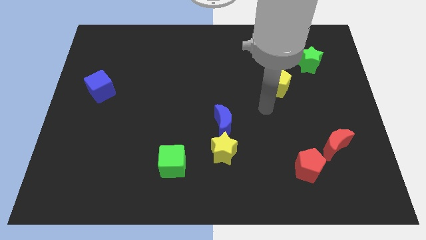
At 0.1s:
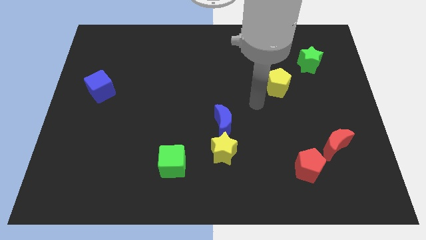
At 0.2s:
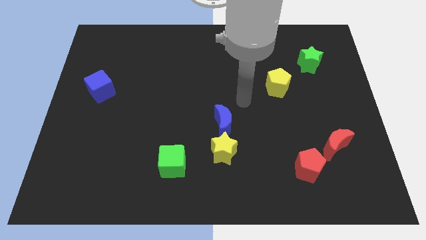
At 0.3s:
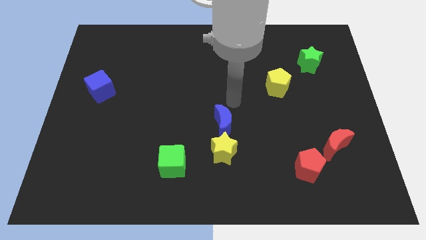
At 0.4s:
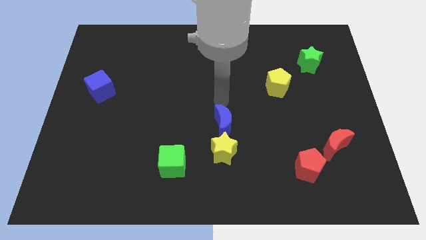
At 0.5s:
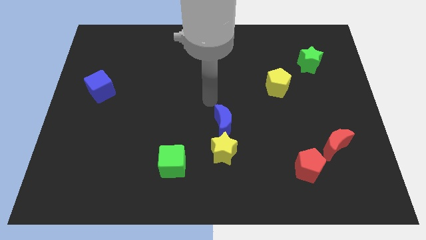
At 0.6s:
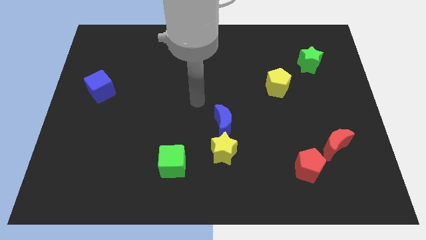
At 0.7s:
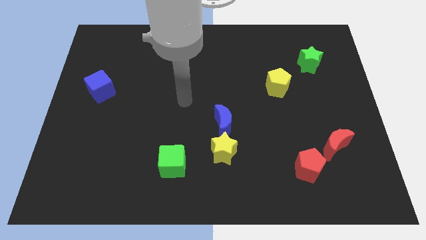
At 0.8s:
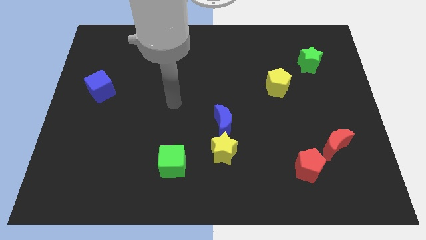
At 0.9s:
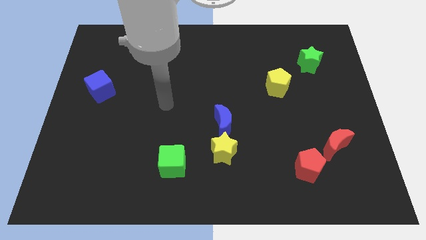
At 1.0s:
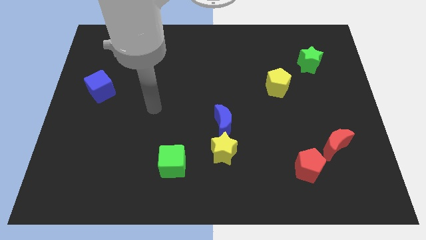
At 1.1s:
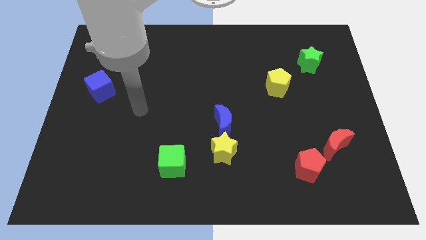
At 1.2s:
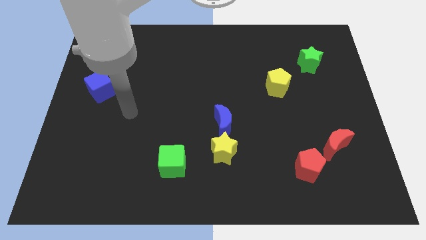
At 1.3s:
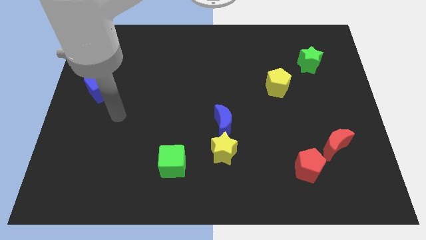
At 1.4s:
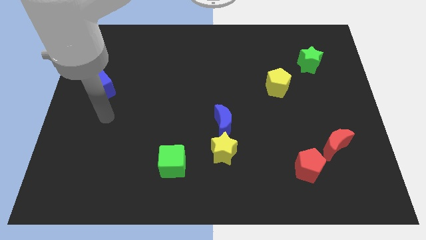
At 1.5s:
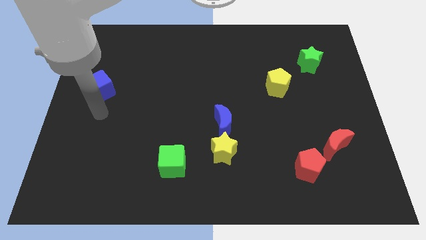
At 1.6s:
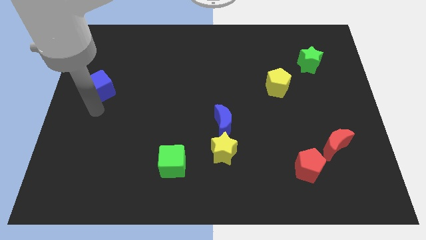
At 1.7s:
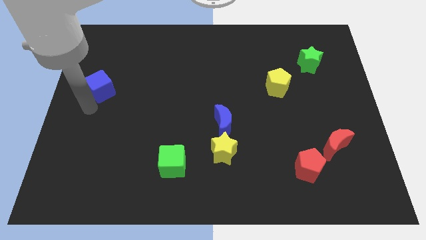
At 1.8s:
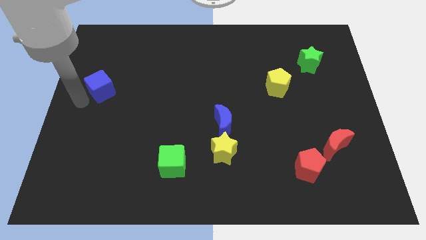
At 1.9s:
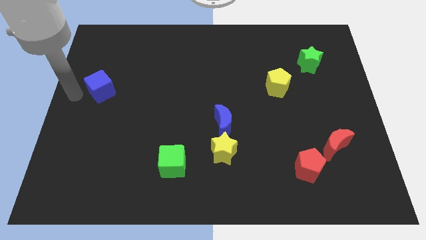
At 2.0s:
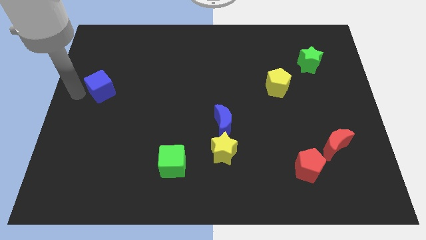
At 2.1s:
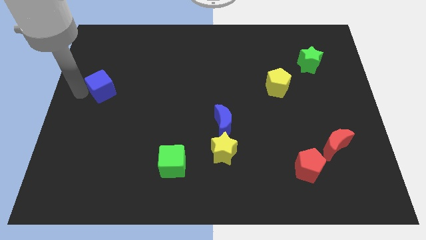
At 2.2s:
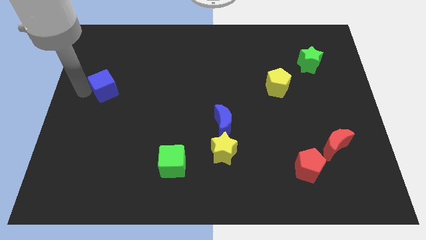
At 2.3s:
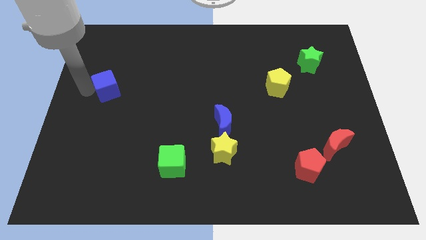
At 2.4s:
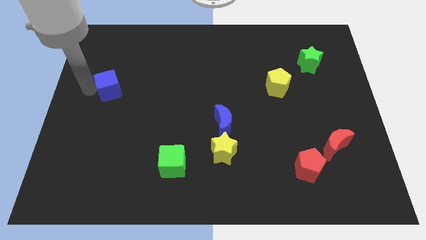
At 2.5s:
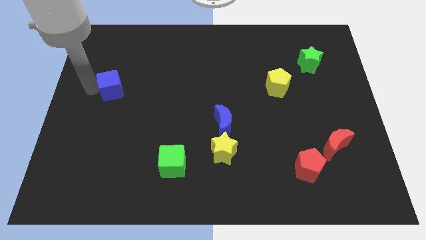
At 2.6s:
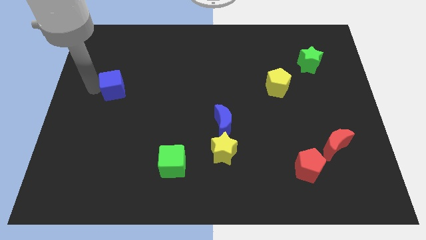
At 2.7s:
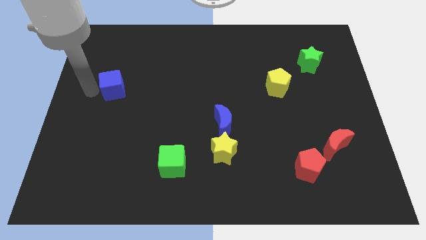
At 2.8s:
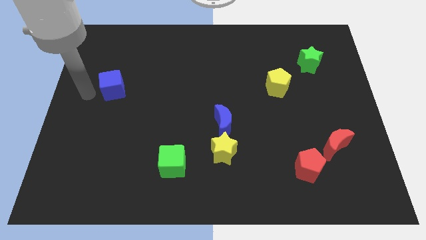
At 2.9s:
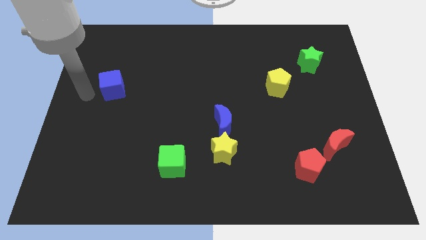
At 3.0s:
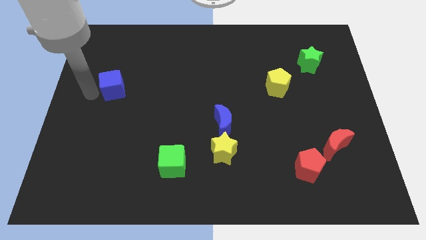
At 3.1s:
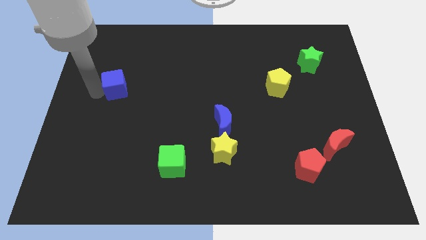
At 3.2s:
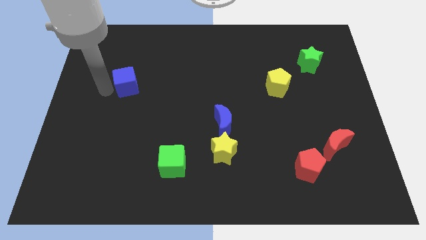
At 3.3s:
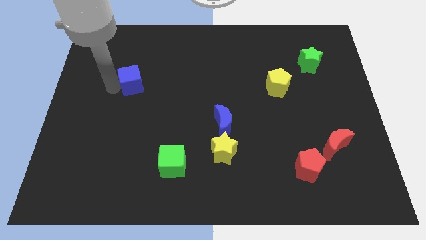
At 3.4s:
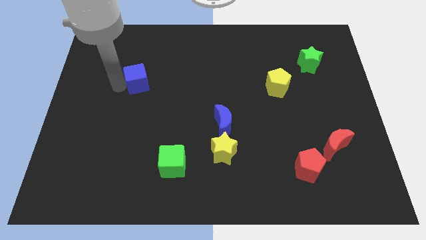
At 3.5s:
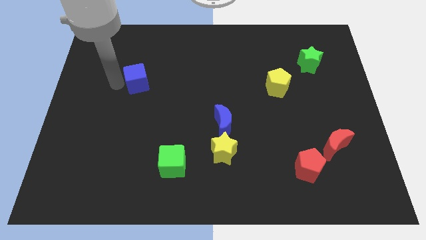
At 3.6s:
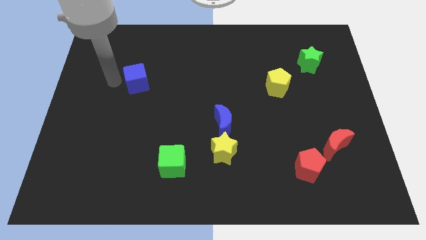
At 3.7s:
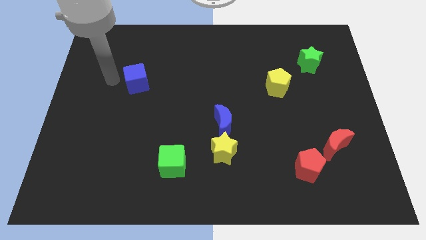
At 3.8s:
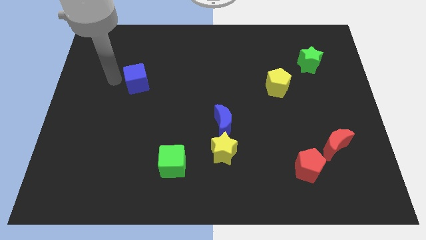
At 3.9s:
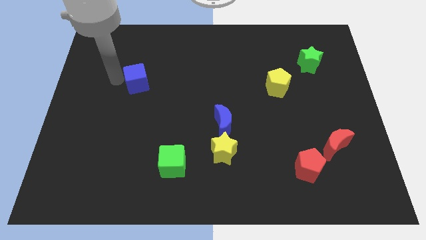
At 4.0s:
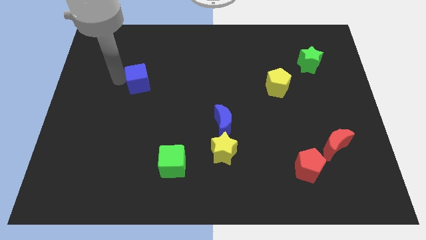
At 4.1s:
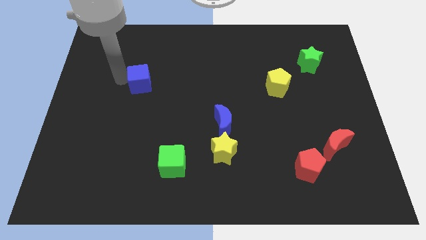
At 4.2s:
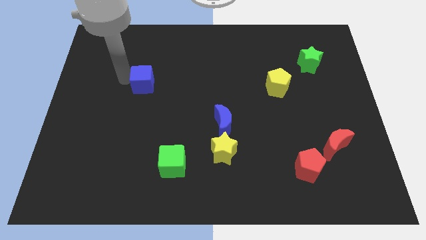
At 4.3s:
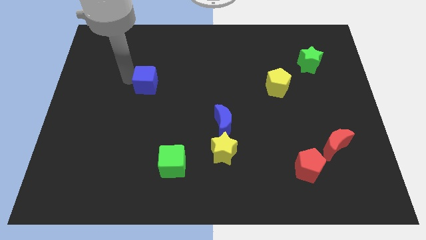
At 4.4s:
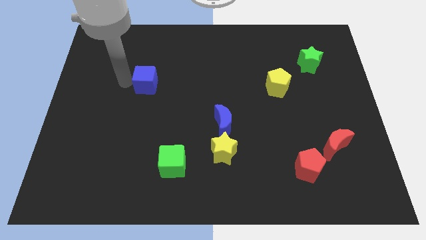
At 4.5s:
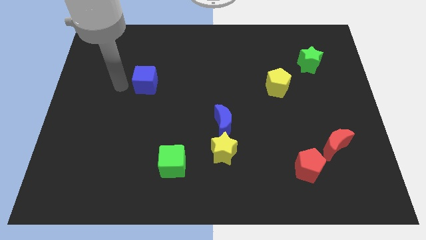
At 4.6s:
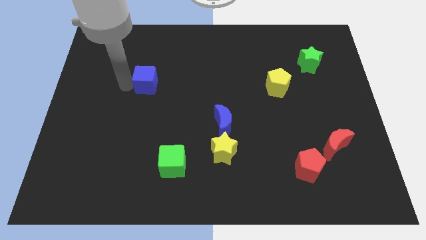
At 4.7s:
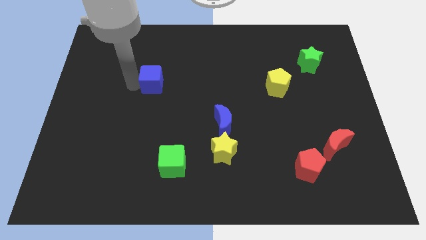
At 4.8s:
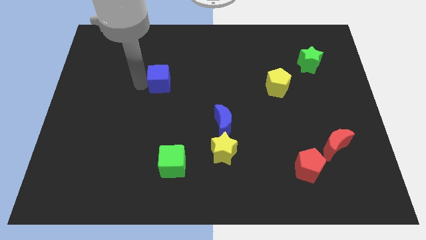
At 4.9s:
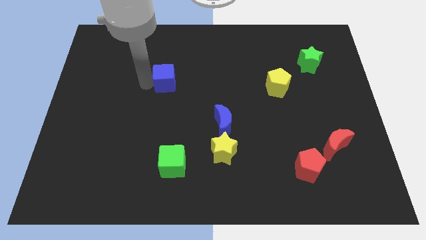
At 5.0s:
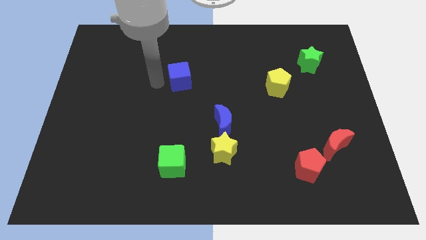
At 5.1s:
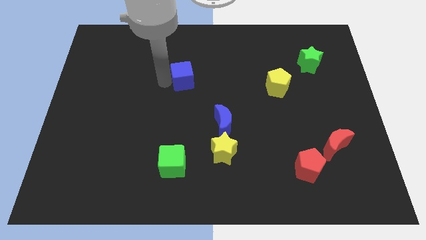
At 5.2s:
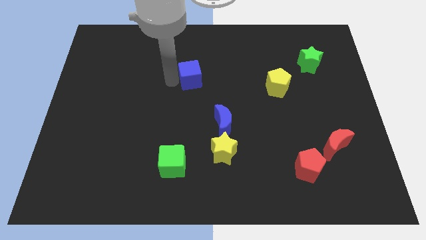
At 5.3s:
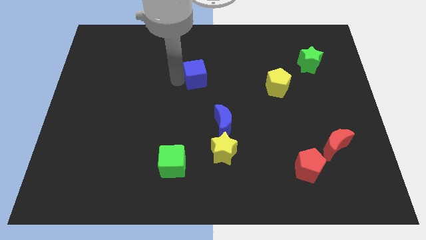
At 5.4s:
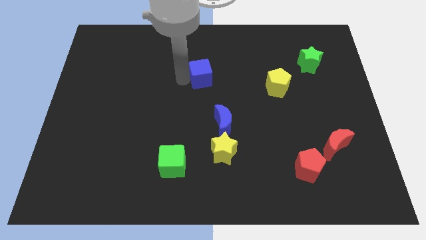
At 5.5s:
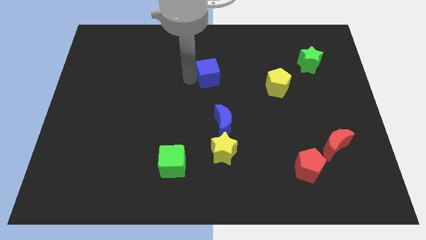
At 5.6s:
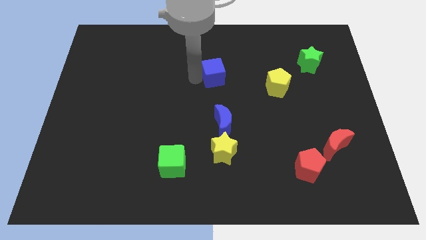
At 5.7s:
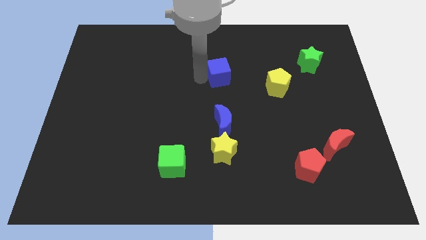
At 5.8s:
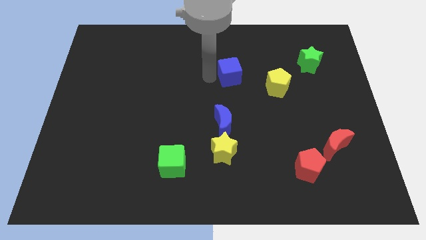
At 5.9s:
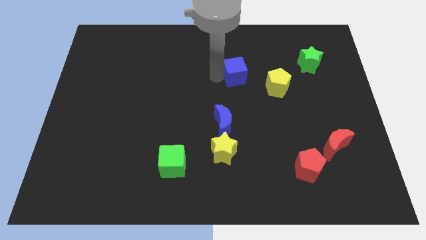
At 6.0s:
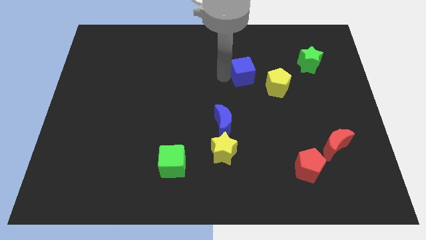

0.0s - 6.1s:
move the blue cube diagonally up and to the left of the yellow pentagon

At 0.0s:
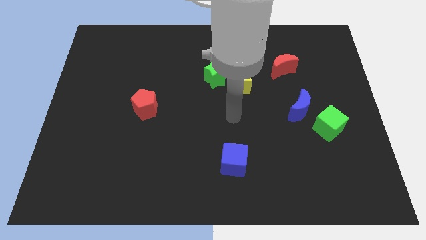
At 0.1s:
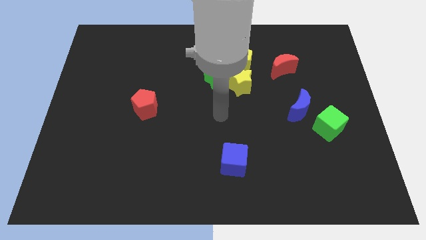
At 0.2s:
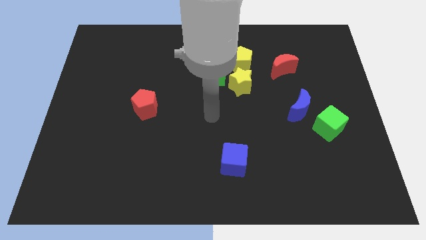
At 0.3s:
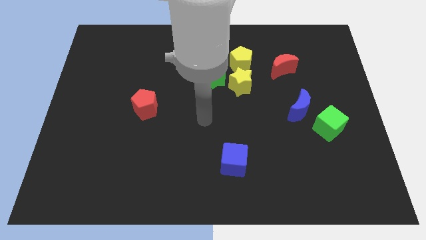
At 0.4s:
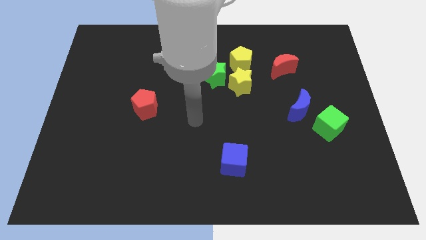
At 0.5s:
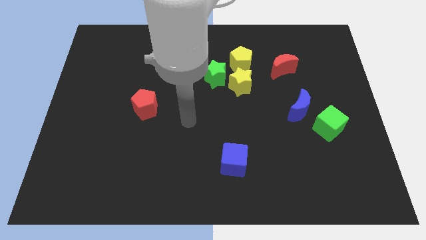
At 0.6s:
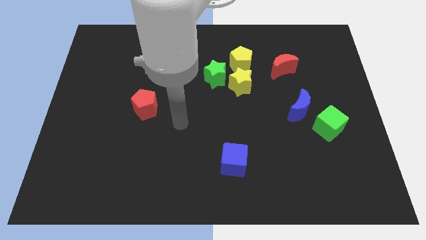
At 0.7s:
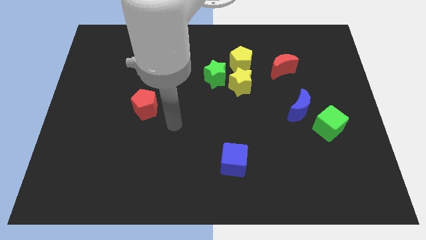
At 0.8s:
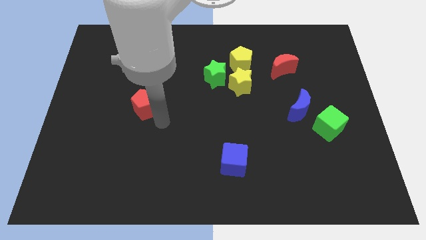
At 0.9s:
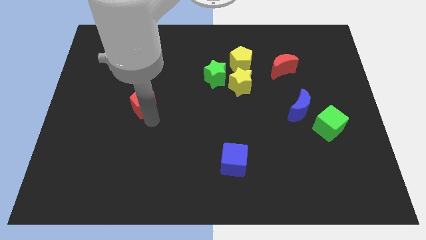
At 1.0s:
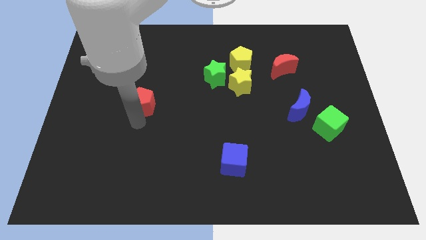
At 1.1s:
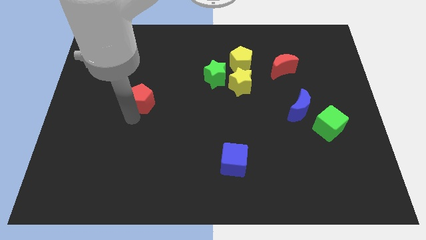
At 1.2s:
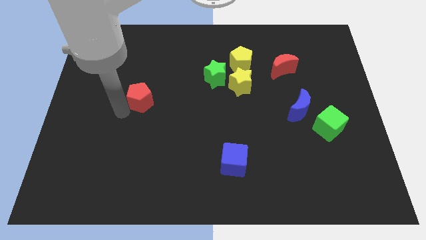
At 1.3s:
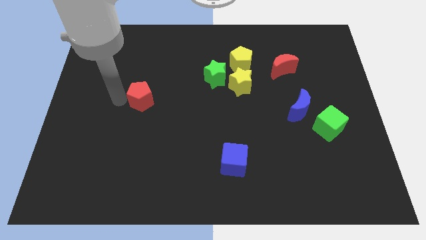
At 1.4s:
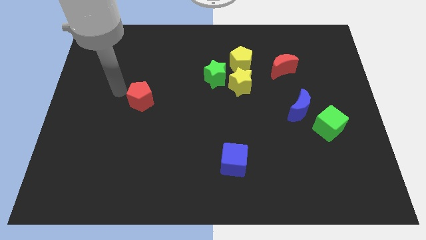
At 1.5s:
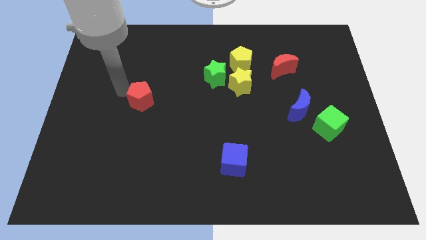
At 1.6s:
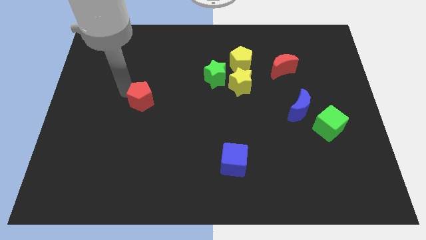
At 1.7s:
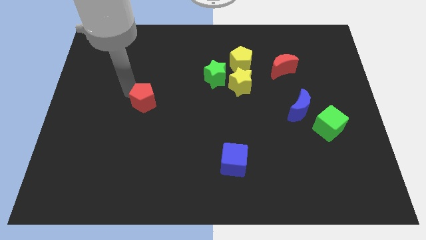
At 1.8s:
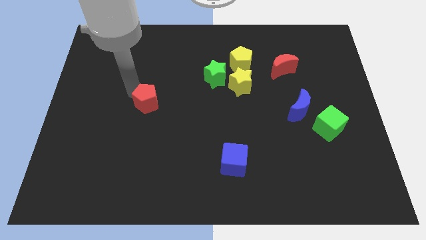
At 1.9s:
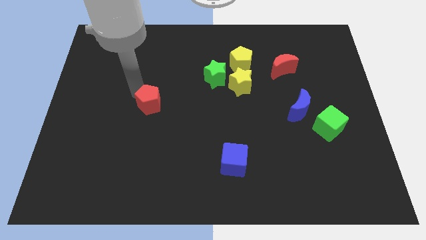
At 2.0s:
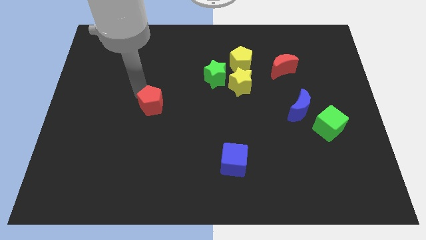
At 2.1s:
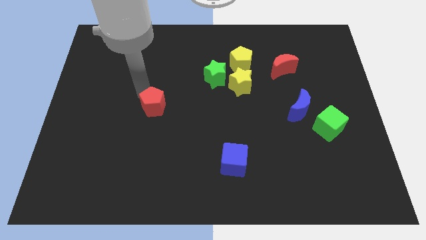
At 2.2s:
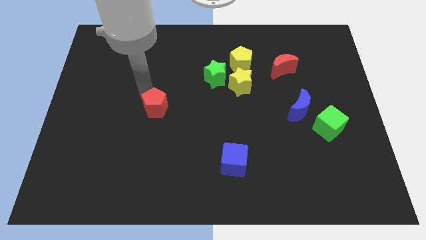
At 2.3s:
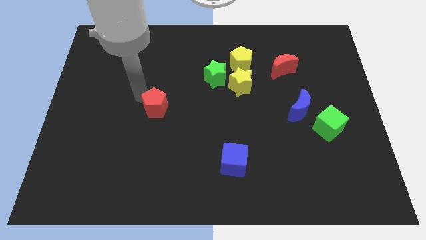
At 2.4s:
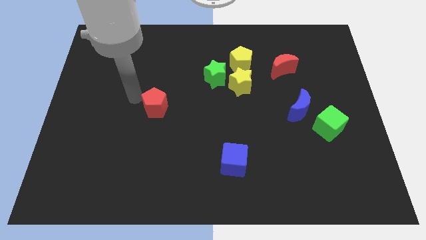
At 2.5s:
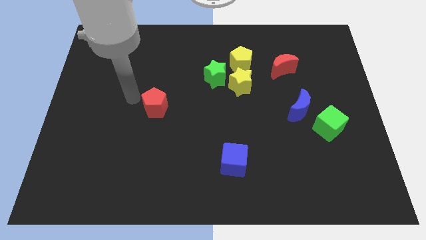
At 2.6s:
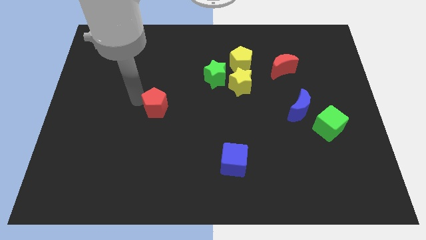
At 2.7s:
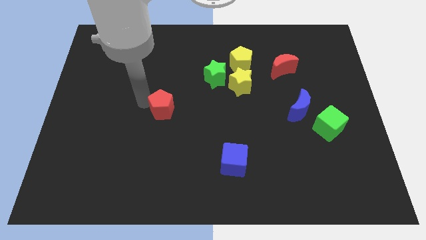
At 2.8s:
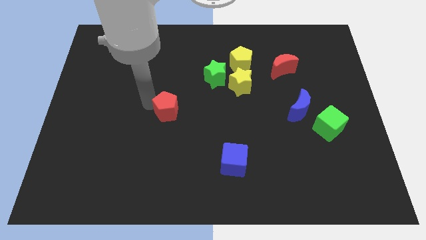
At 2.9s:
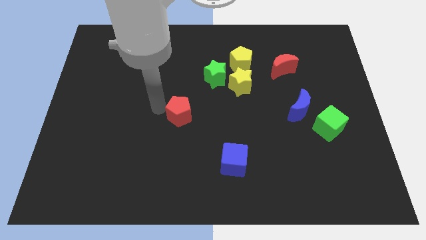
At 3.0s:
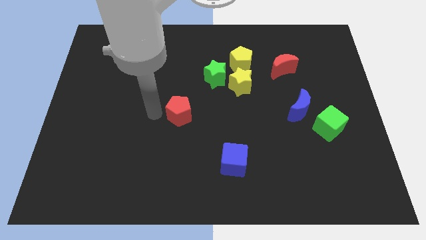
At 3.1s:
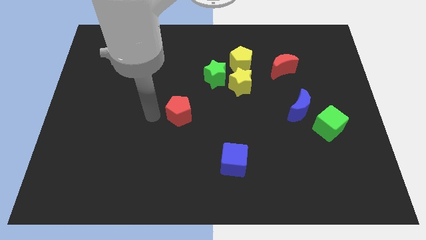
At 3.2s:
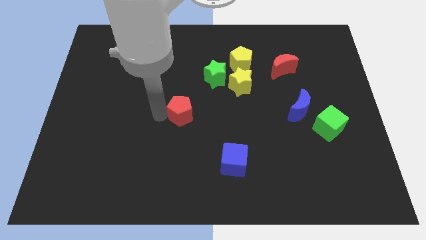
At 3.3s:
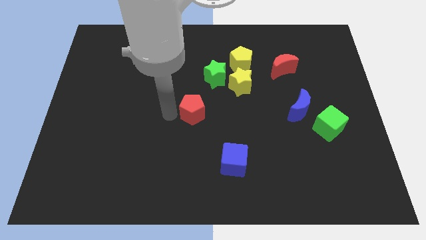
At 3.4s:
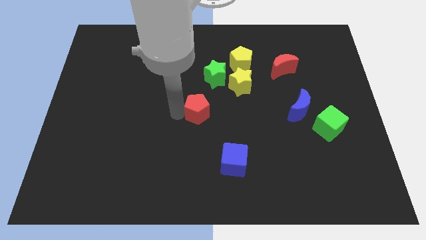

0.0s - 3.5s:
move the red pentagon to the bottom of the green star
